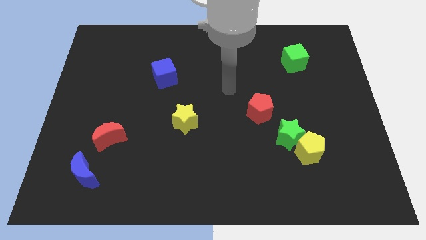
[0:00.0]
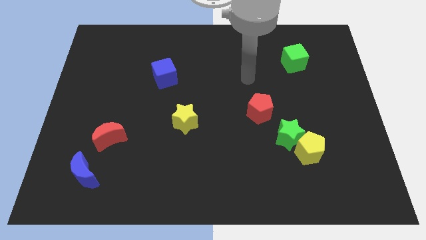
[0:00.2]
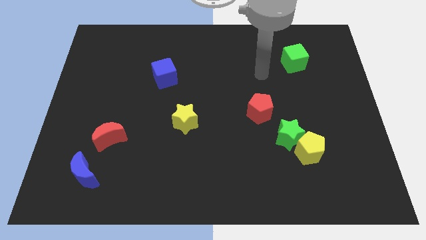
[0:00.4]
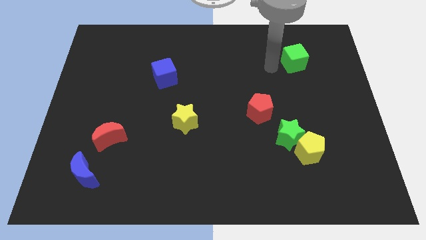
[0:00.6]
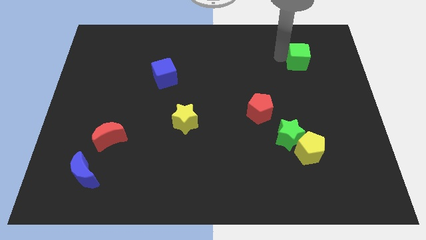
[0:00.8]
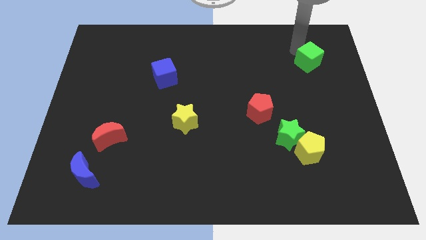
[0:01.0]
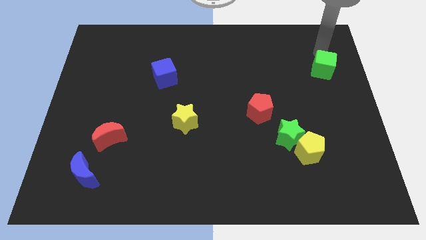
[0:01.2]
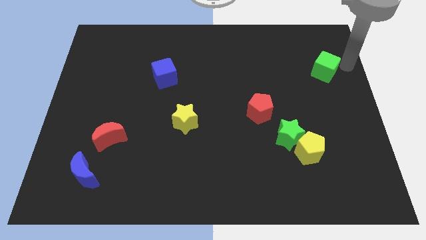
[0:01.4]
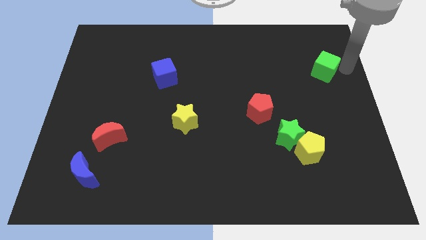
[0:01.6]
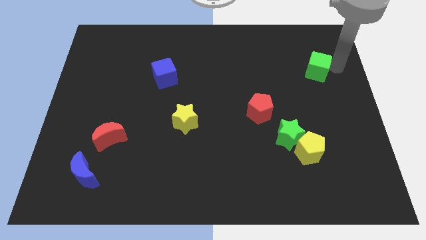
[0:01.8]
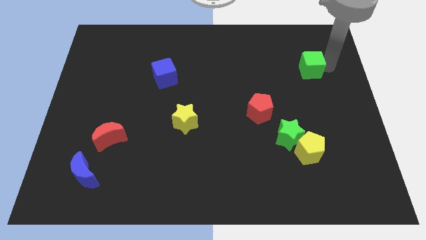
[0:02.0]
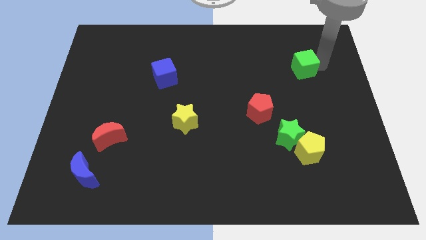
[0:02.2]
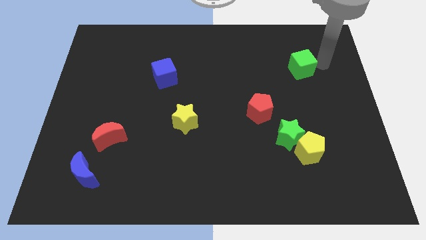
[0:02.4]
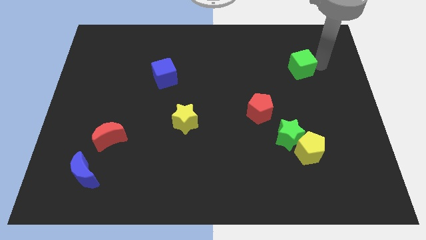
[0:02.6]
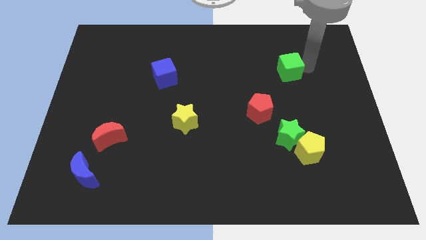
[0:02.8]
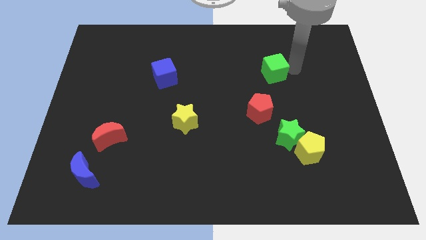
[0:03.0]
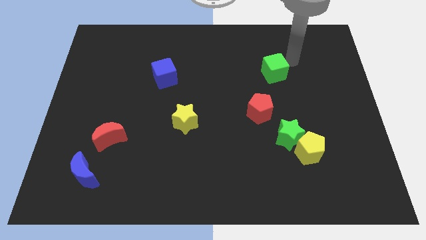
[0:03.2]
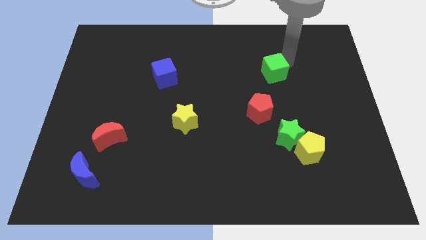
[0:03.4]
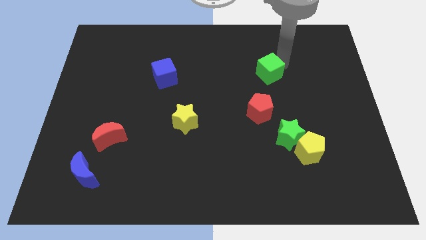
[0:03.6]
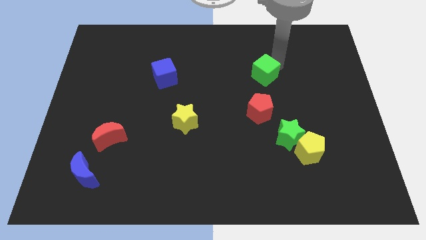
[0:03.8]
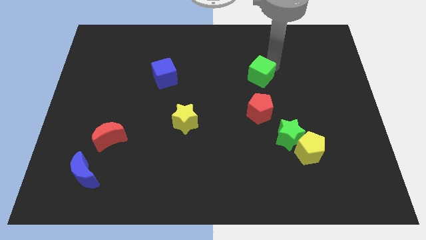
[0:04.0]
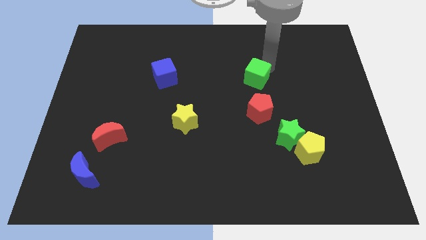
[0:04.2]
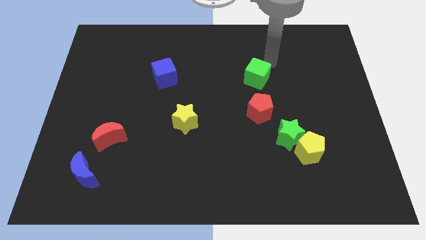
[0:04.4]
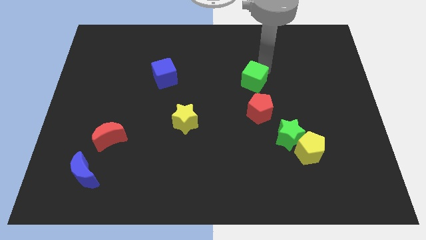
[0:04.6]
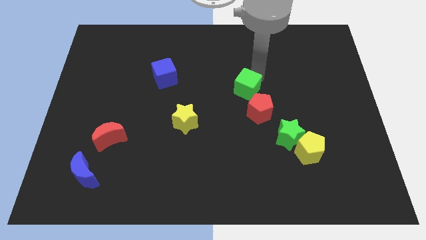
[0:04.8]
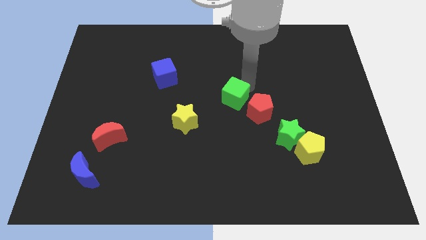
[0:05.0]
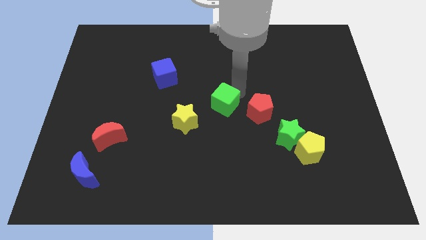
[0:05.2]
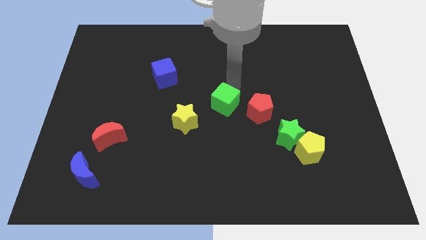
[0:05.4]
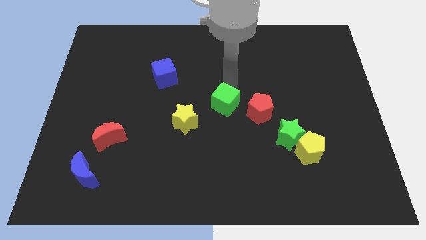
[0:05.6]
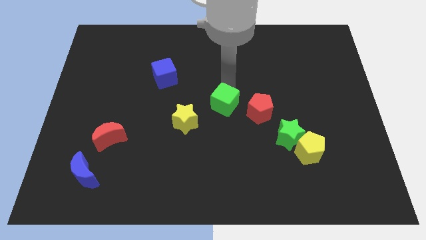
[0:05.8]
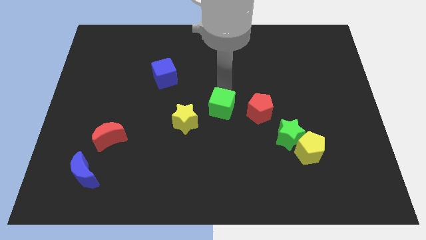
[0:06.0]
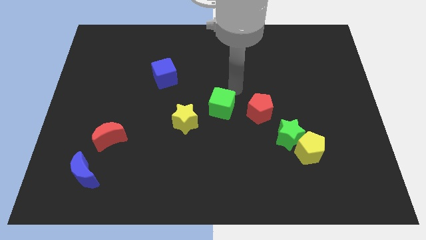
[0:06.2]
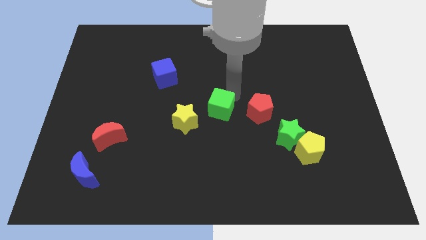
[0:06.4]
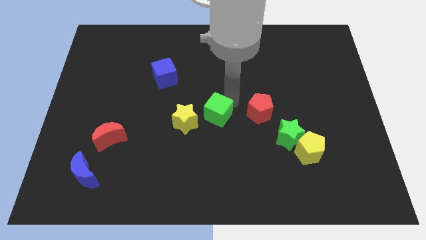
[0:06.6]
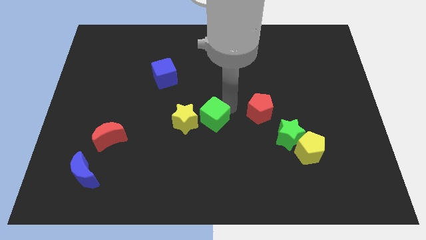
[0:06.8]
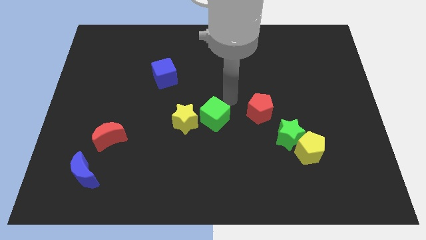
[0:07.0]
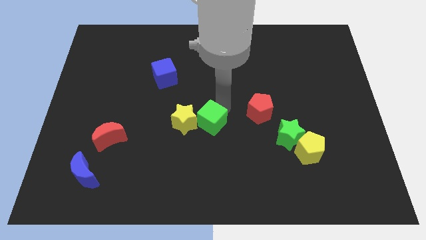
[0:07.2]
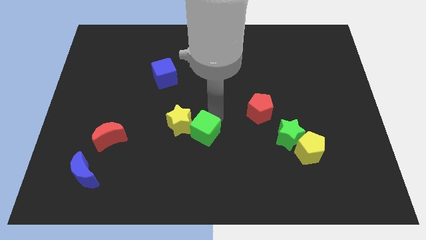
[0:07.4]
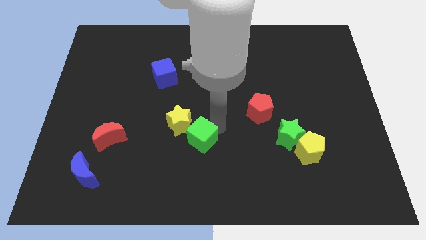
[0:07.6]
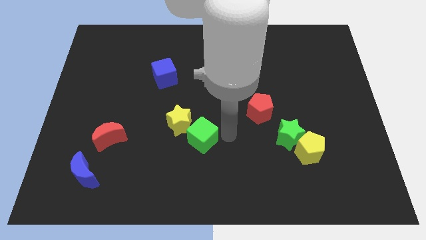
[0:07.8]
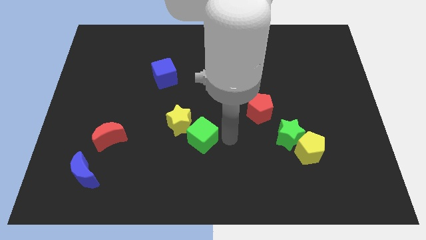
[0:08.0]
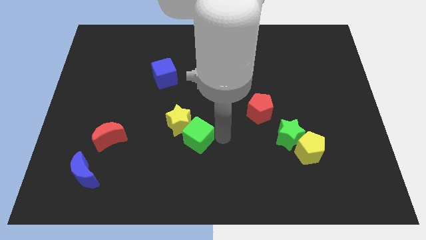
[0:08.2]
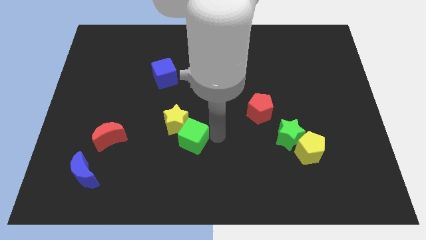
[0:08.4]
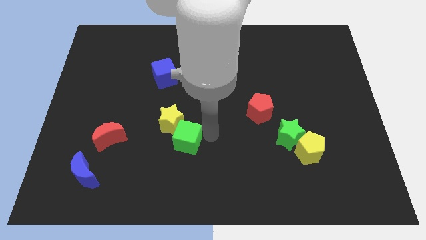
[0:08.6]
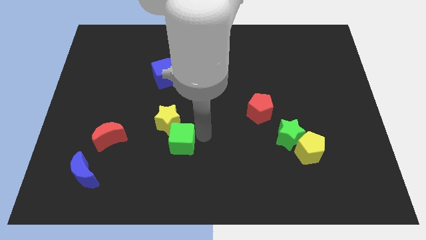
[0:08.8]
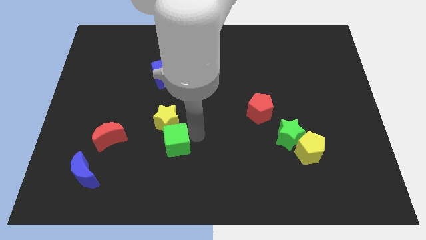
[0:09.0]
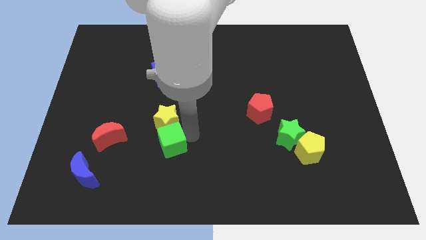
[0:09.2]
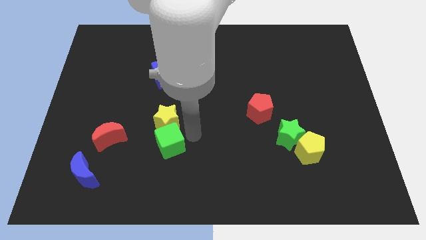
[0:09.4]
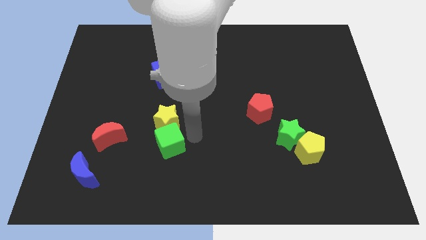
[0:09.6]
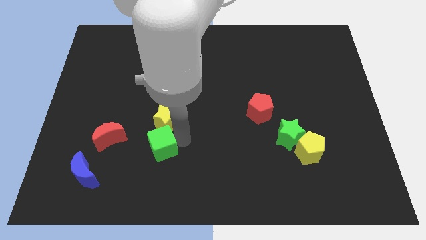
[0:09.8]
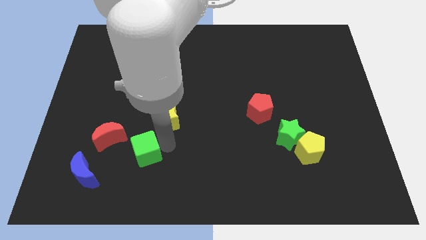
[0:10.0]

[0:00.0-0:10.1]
push the green cube diagonally down and to the right of the red moon
